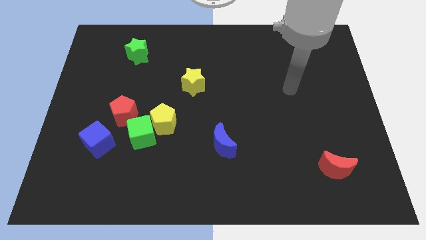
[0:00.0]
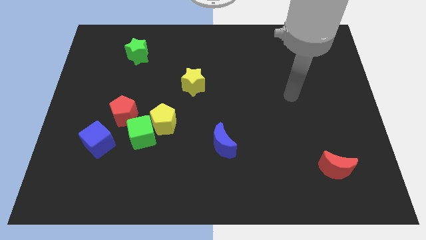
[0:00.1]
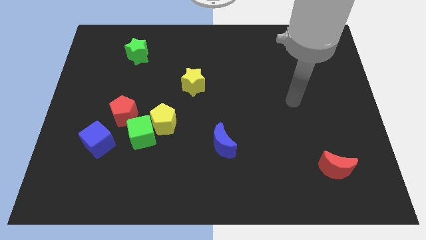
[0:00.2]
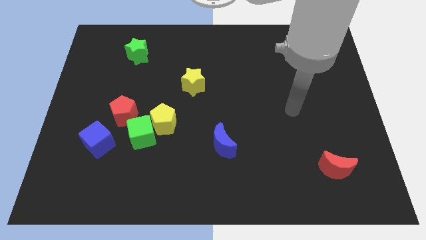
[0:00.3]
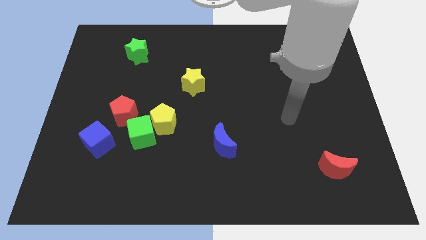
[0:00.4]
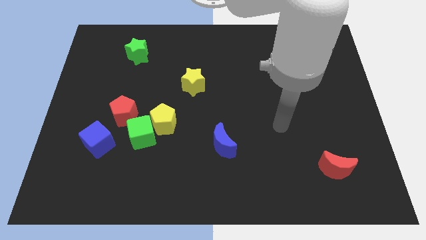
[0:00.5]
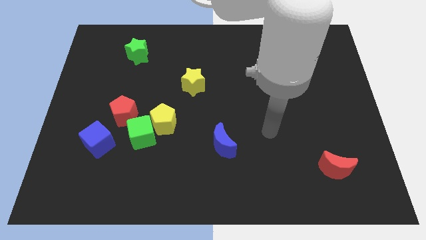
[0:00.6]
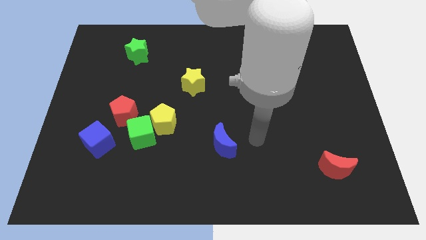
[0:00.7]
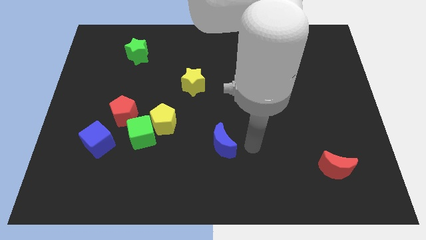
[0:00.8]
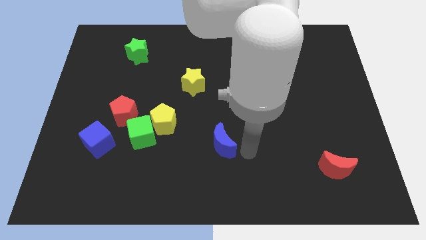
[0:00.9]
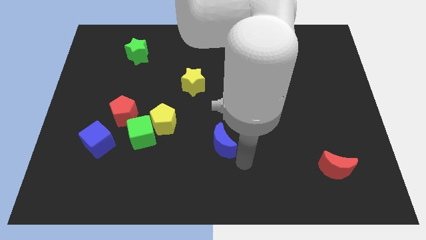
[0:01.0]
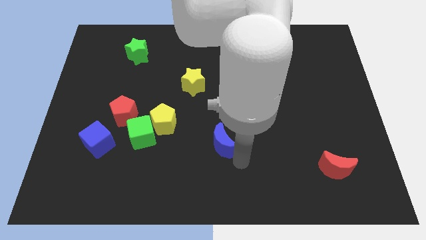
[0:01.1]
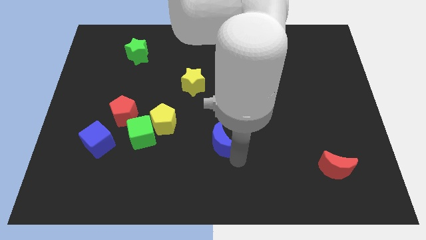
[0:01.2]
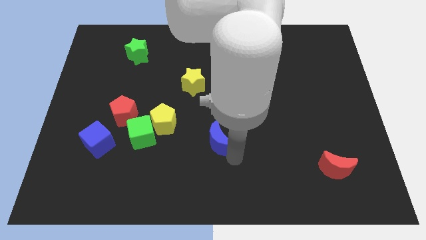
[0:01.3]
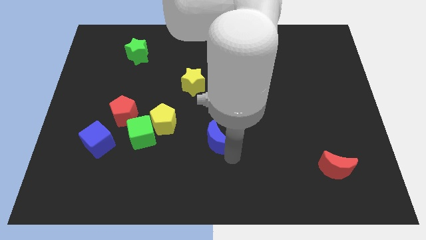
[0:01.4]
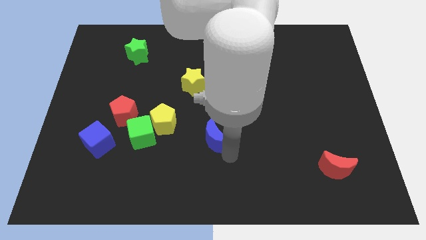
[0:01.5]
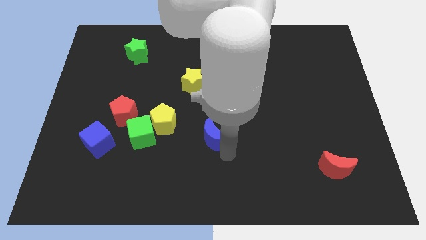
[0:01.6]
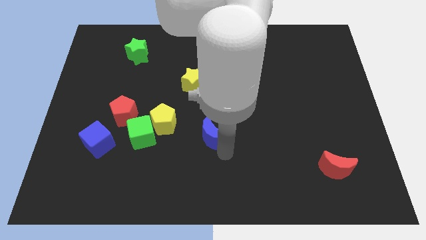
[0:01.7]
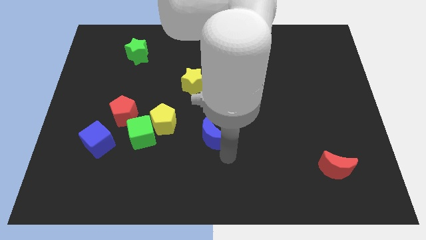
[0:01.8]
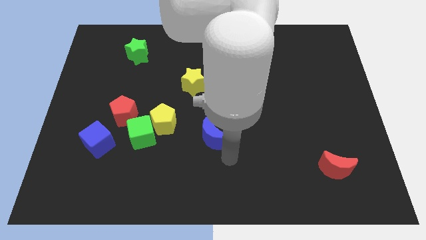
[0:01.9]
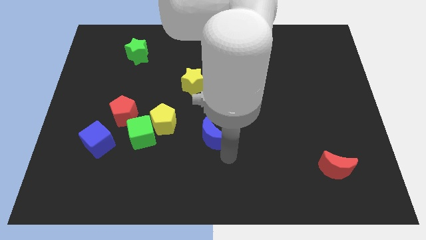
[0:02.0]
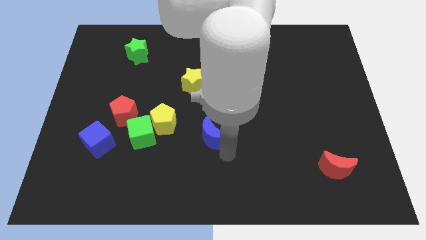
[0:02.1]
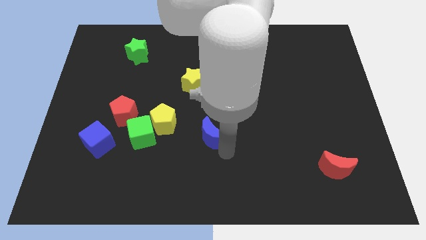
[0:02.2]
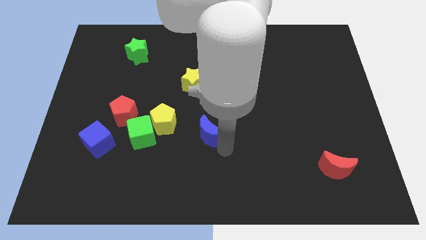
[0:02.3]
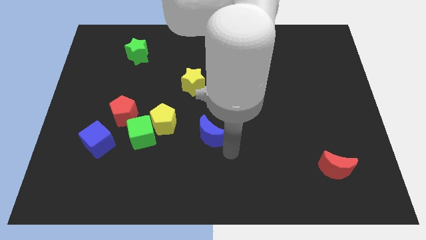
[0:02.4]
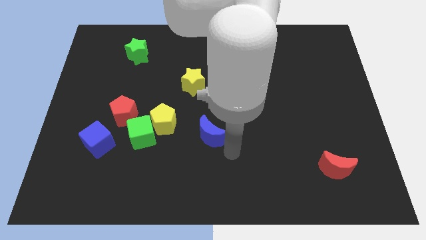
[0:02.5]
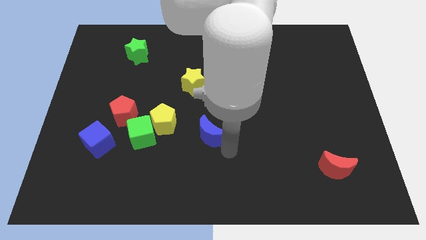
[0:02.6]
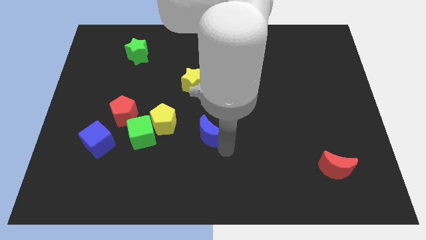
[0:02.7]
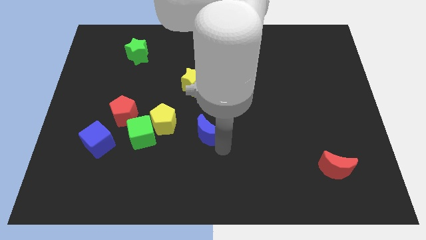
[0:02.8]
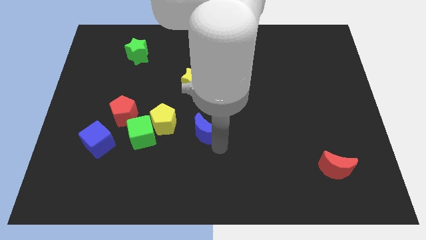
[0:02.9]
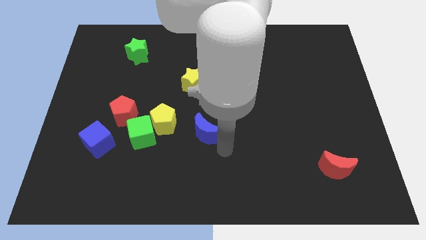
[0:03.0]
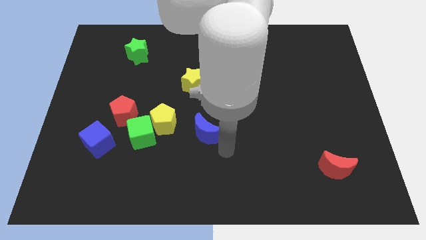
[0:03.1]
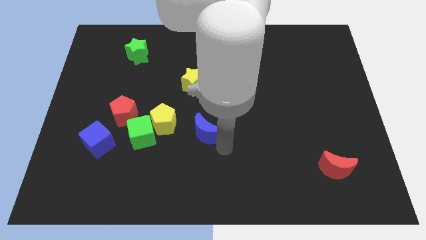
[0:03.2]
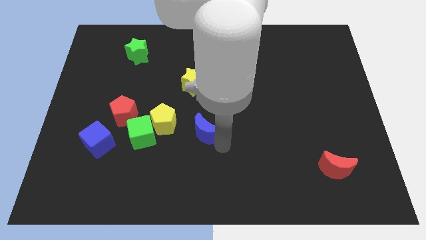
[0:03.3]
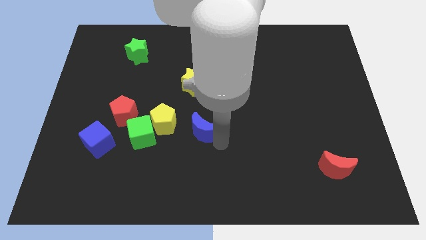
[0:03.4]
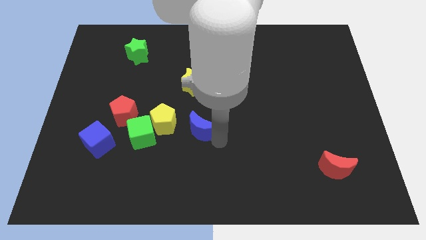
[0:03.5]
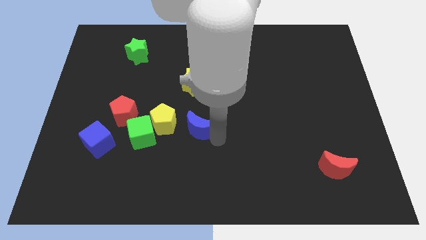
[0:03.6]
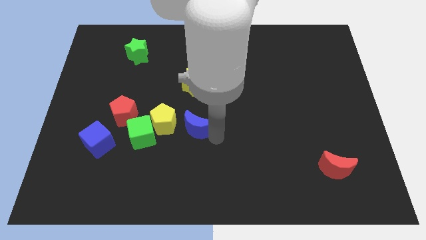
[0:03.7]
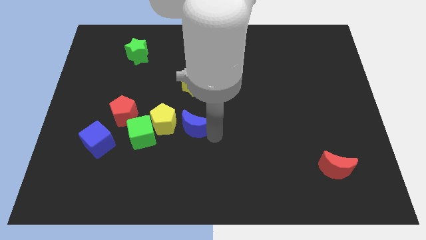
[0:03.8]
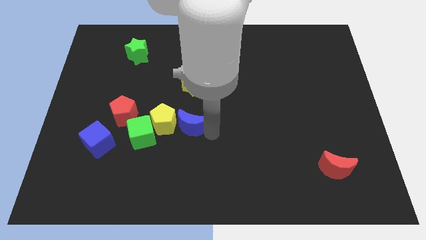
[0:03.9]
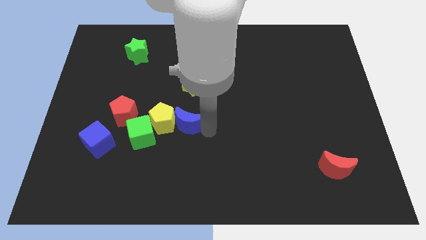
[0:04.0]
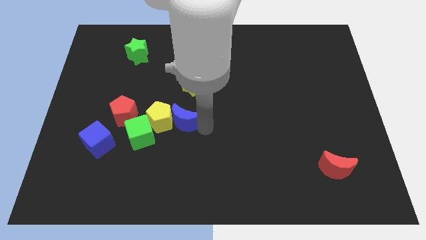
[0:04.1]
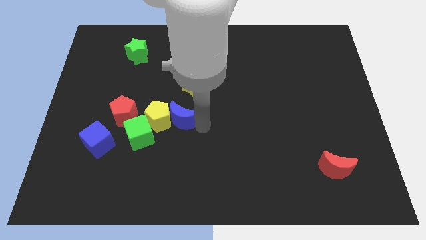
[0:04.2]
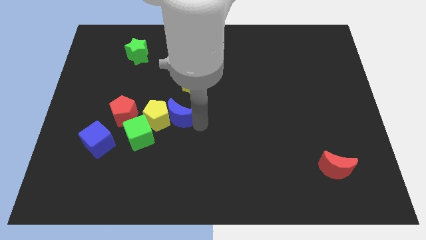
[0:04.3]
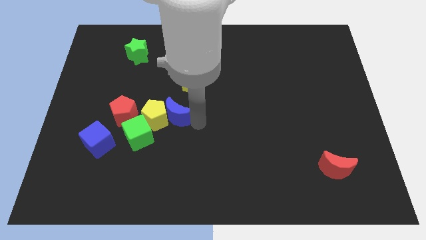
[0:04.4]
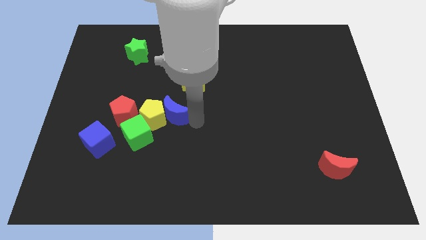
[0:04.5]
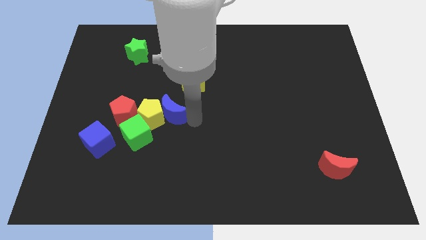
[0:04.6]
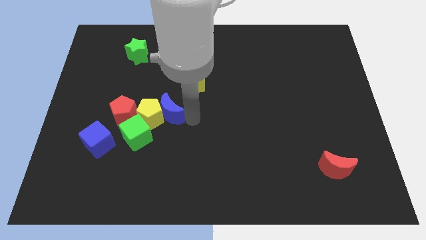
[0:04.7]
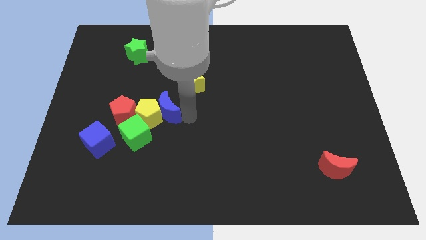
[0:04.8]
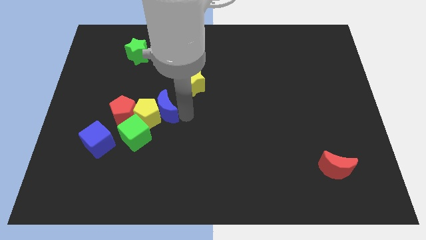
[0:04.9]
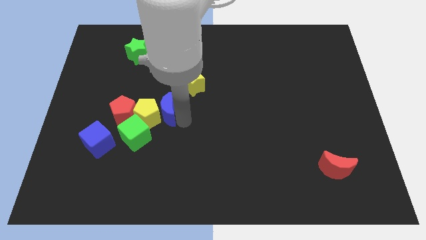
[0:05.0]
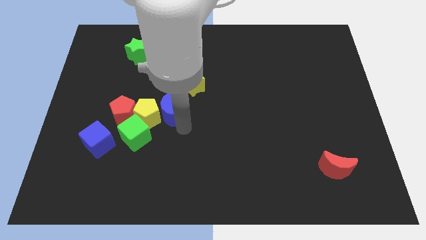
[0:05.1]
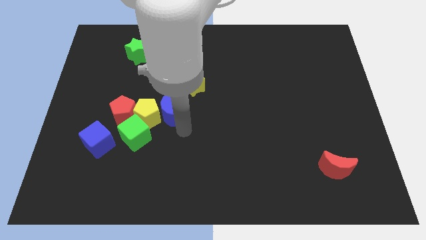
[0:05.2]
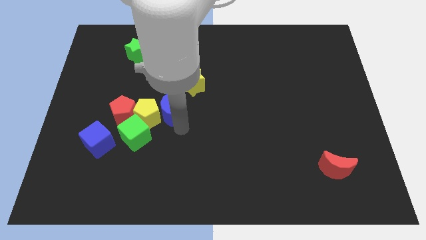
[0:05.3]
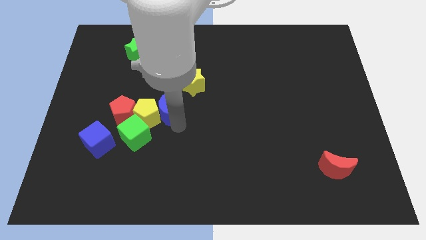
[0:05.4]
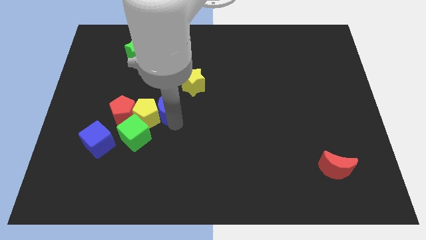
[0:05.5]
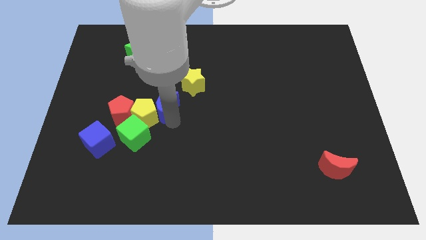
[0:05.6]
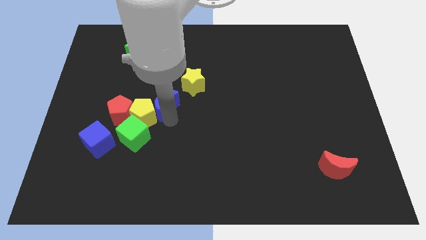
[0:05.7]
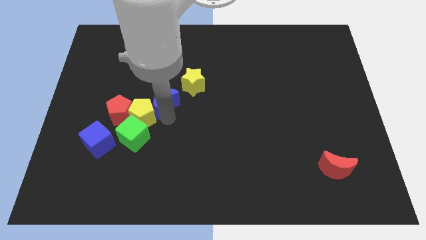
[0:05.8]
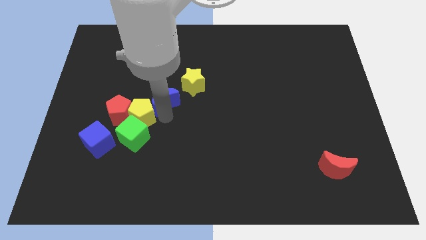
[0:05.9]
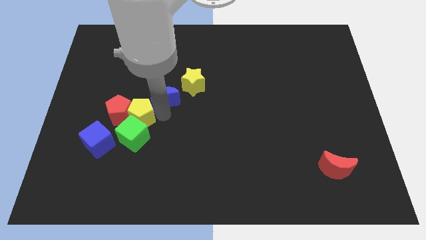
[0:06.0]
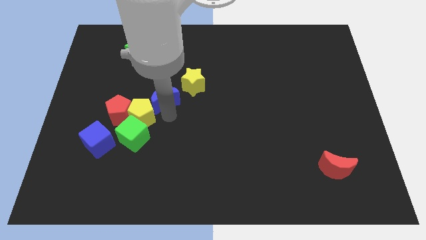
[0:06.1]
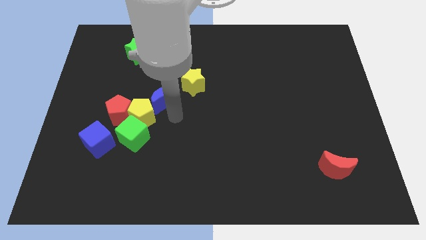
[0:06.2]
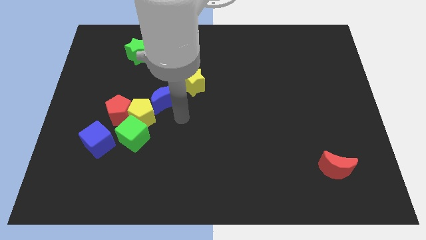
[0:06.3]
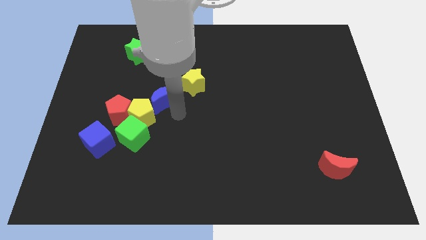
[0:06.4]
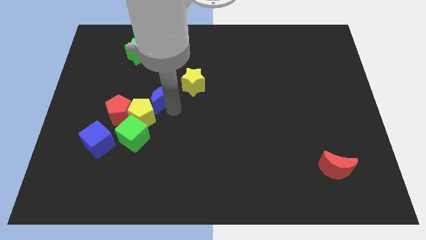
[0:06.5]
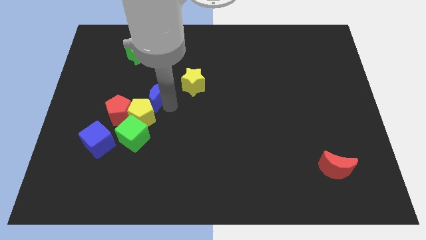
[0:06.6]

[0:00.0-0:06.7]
push the blue moon up and to the left diagonally

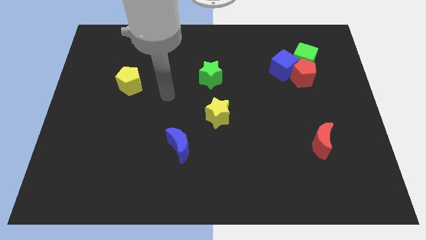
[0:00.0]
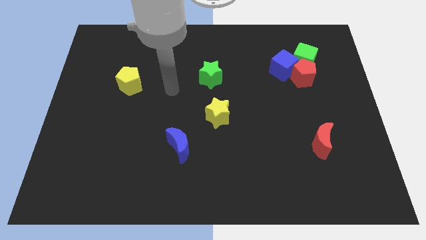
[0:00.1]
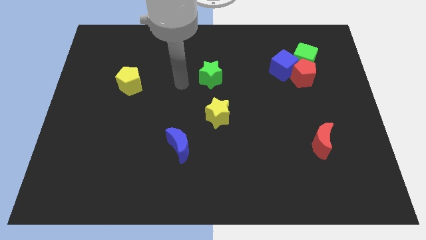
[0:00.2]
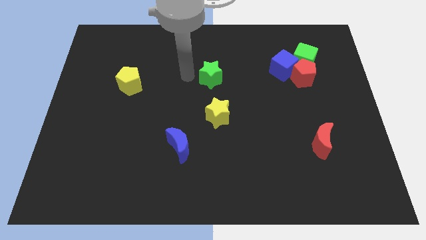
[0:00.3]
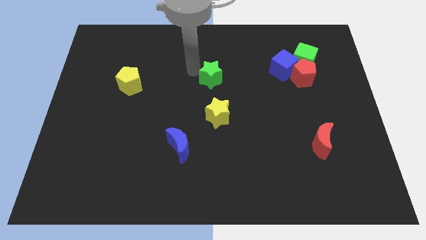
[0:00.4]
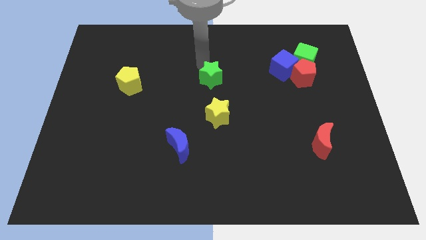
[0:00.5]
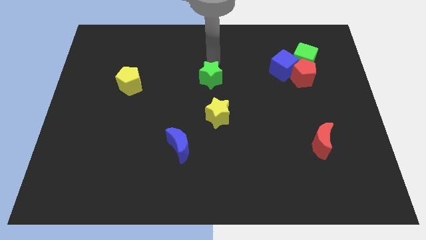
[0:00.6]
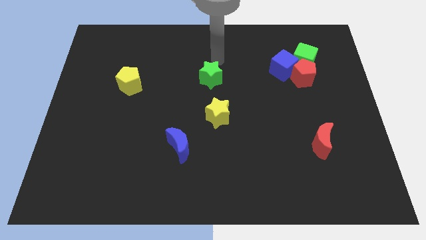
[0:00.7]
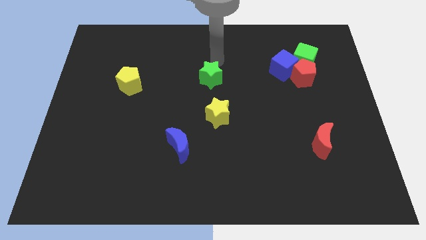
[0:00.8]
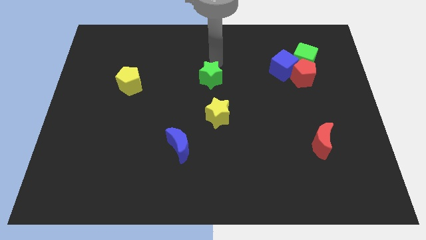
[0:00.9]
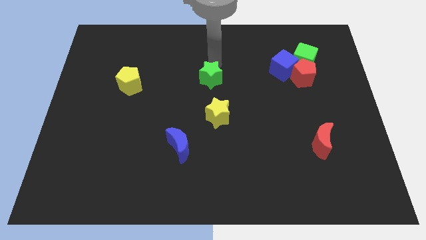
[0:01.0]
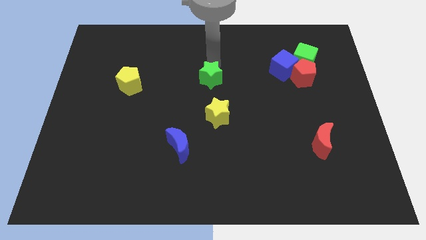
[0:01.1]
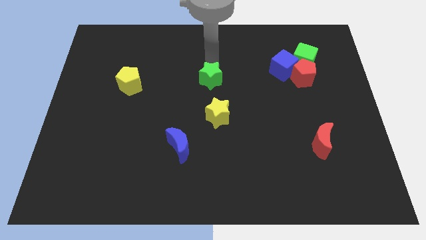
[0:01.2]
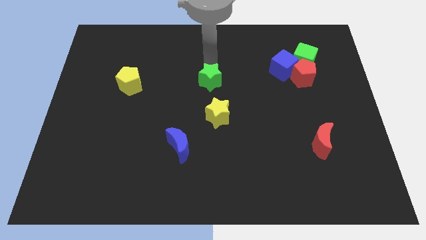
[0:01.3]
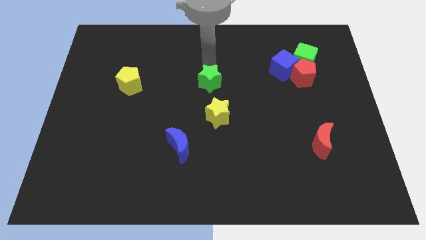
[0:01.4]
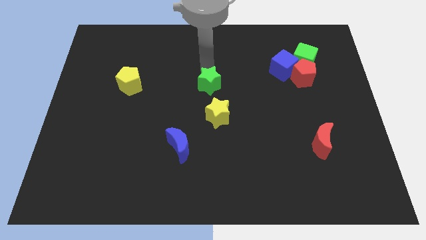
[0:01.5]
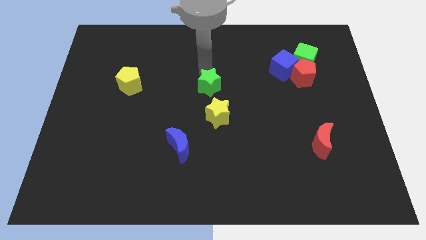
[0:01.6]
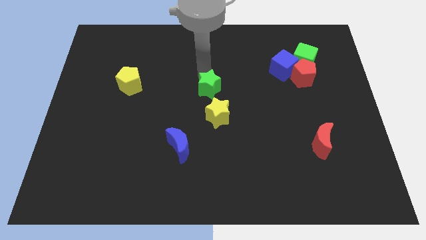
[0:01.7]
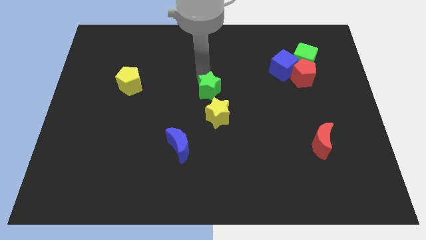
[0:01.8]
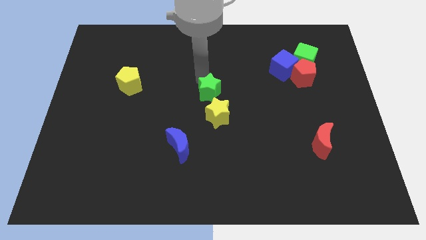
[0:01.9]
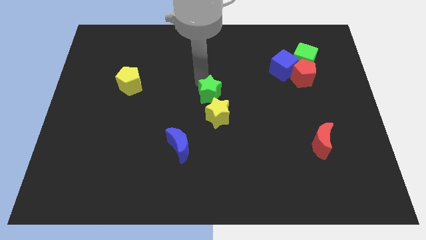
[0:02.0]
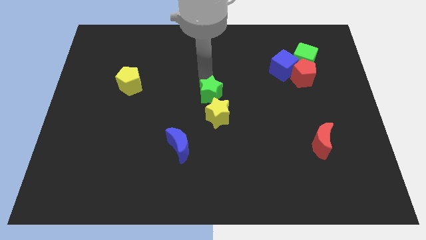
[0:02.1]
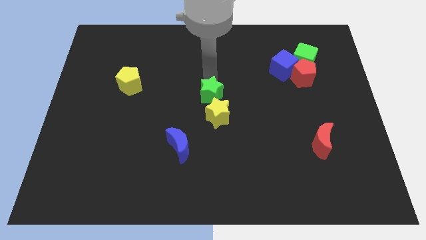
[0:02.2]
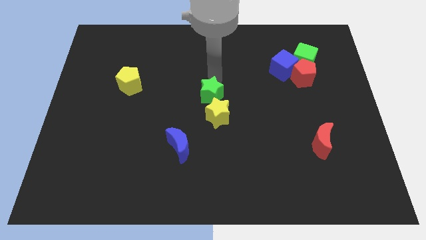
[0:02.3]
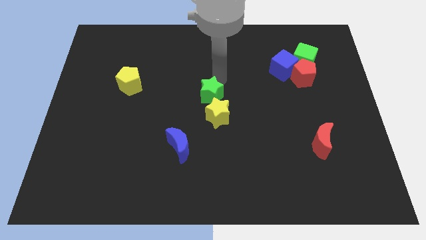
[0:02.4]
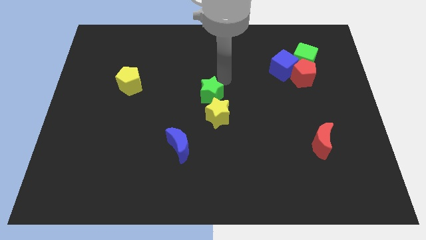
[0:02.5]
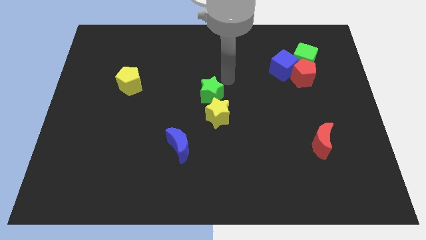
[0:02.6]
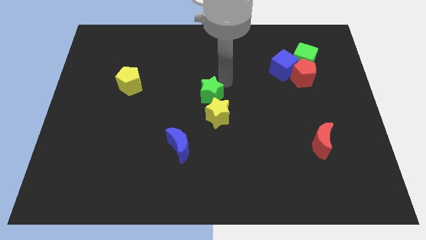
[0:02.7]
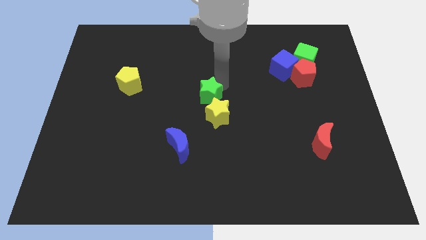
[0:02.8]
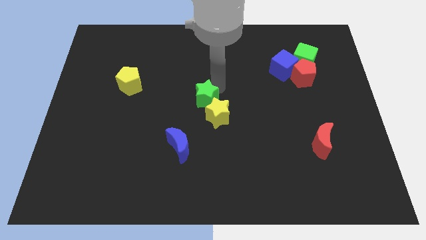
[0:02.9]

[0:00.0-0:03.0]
slightly move the green star downwards
